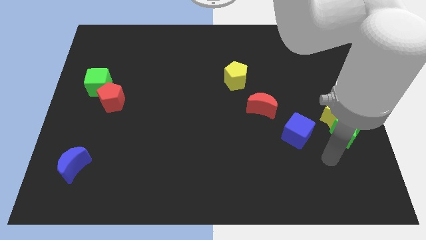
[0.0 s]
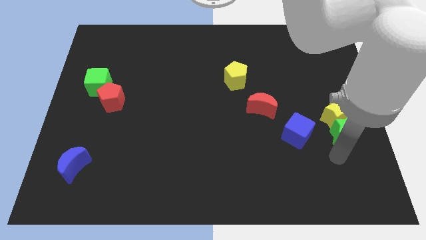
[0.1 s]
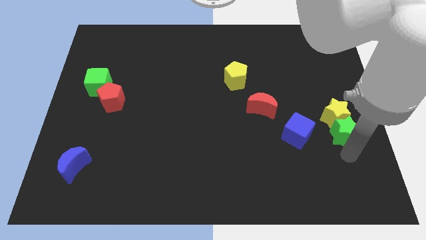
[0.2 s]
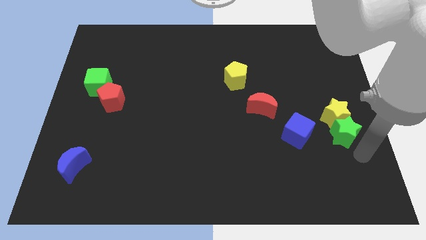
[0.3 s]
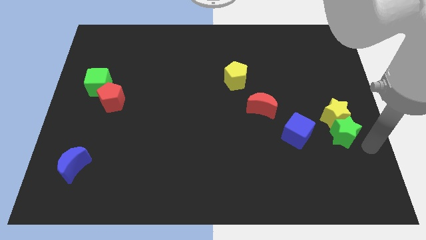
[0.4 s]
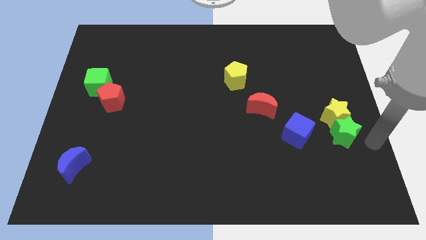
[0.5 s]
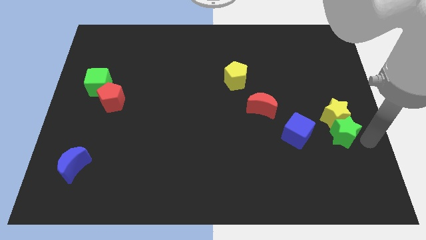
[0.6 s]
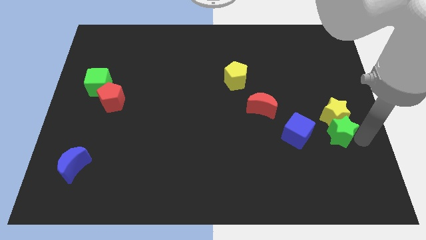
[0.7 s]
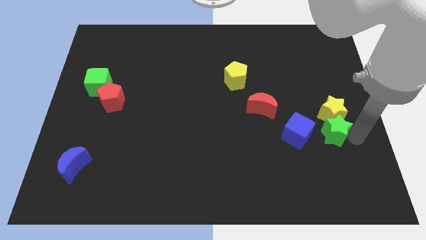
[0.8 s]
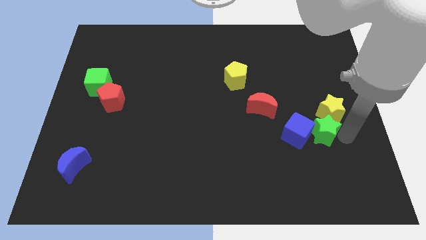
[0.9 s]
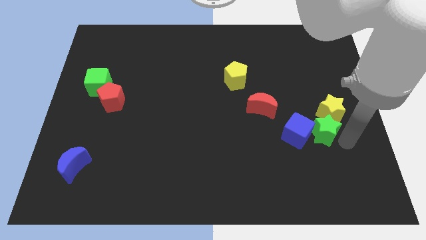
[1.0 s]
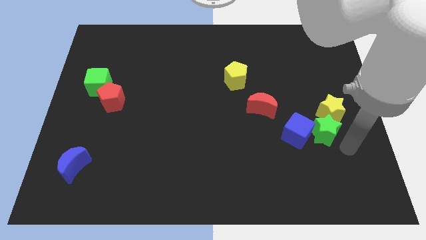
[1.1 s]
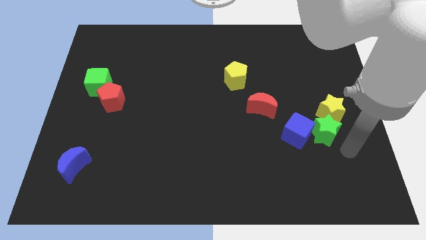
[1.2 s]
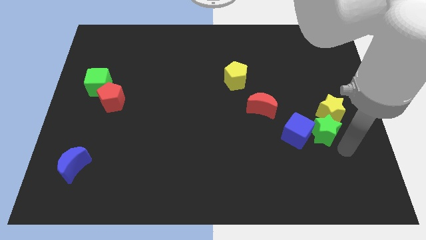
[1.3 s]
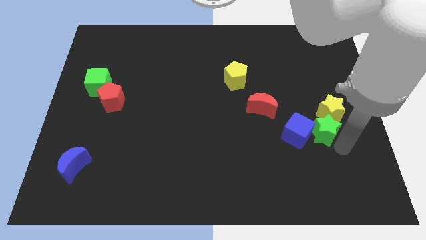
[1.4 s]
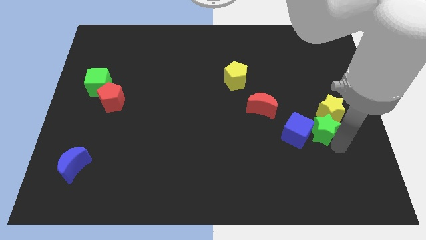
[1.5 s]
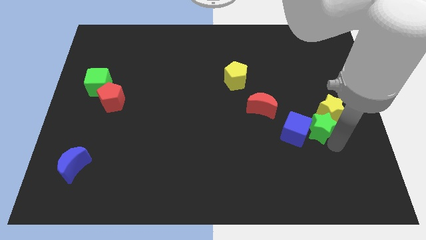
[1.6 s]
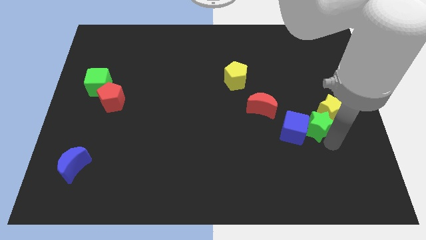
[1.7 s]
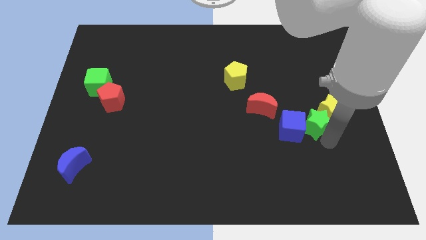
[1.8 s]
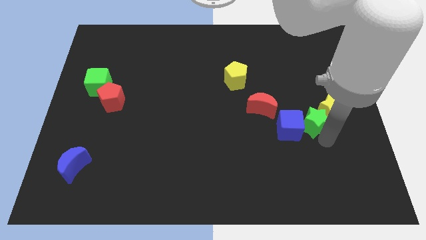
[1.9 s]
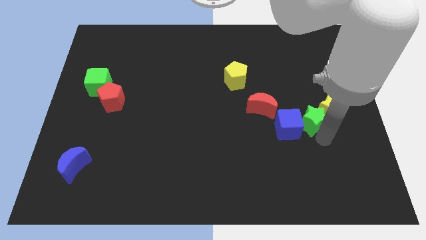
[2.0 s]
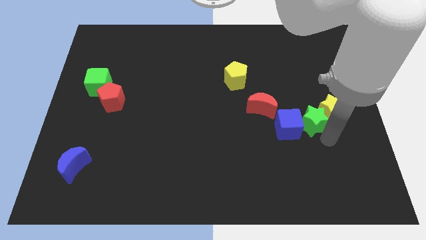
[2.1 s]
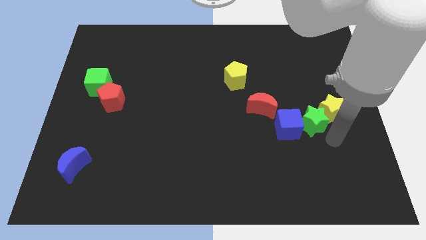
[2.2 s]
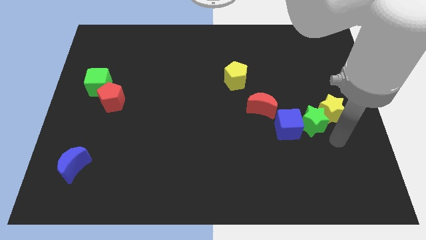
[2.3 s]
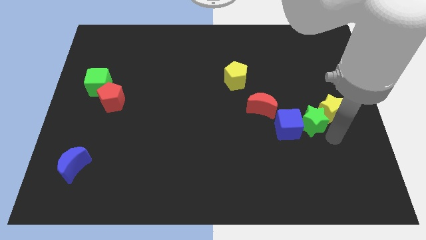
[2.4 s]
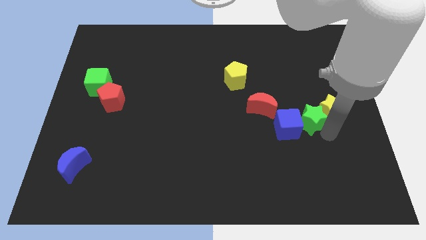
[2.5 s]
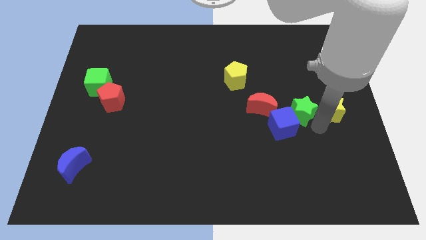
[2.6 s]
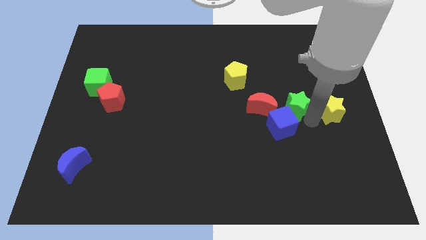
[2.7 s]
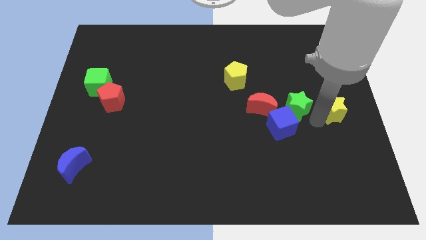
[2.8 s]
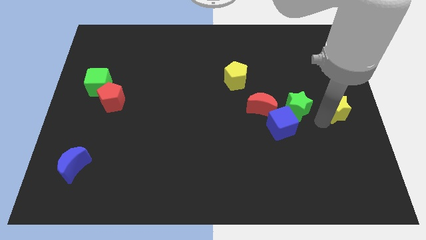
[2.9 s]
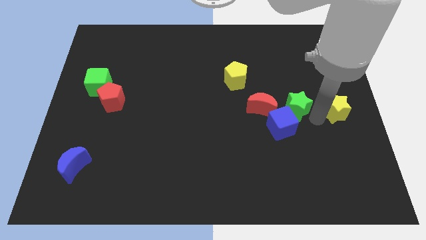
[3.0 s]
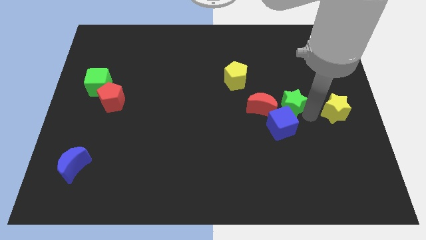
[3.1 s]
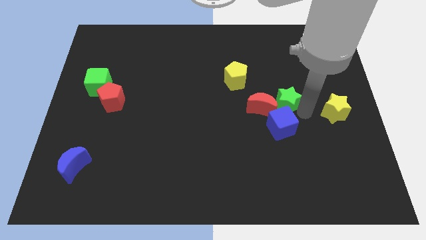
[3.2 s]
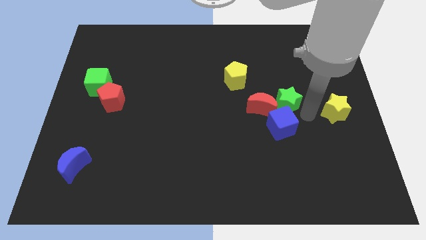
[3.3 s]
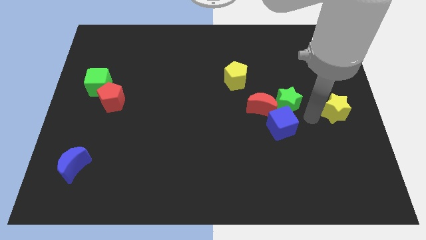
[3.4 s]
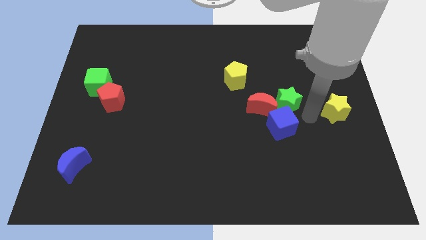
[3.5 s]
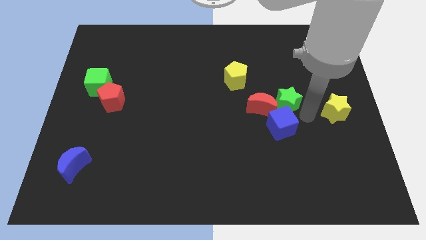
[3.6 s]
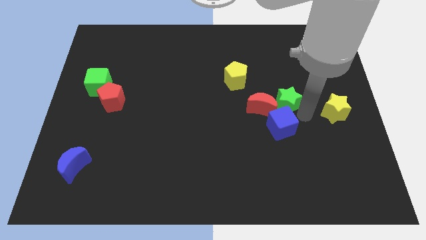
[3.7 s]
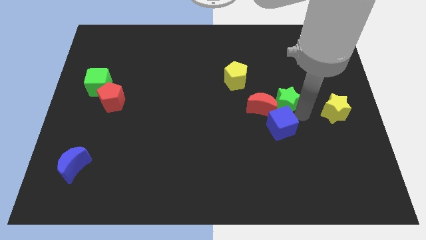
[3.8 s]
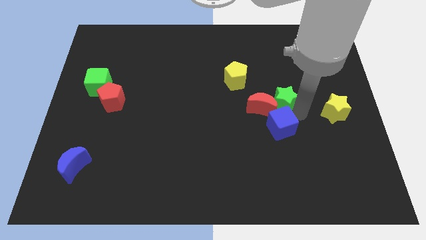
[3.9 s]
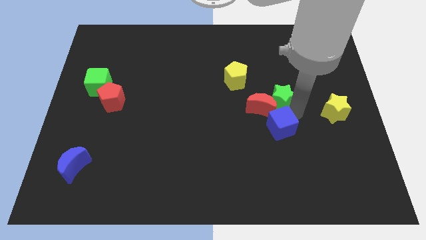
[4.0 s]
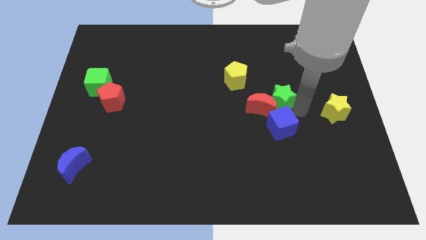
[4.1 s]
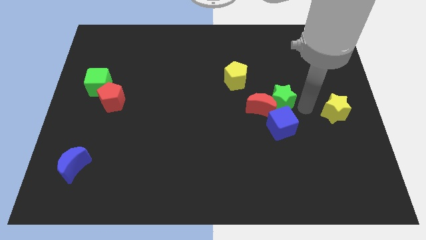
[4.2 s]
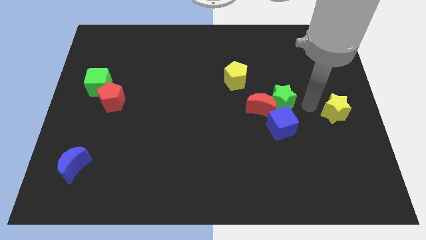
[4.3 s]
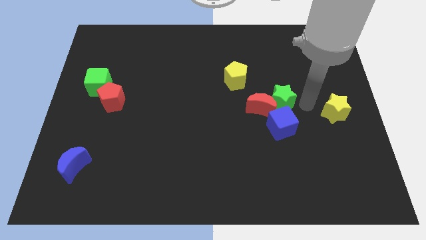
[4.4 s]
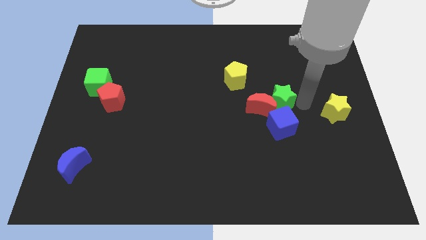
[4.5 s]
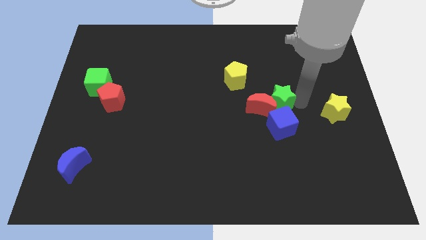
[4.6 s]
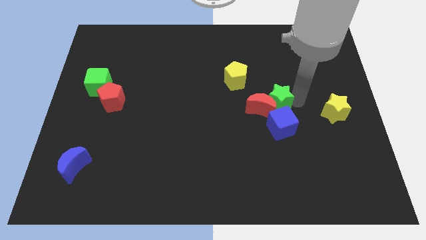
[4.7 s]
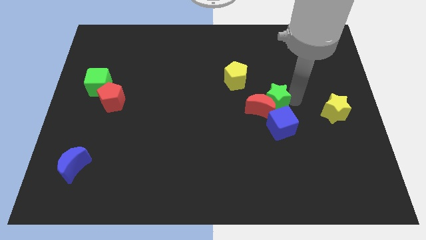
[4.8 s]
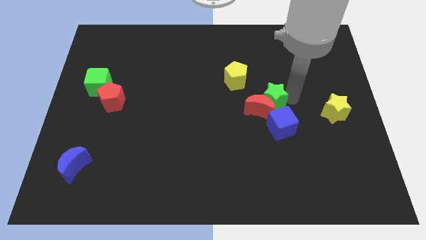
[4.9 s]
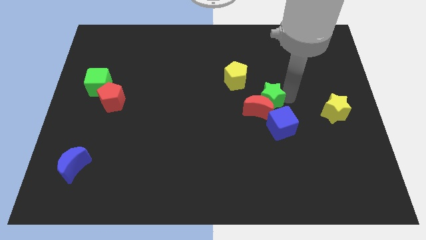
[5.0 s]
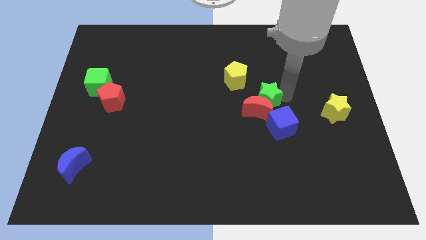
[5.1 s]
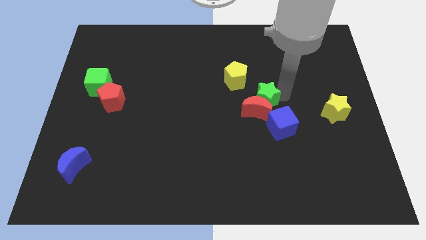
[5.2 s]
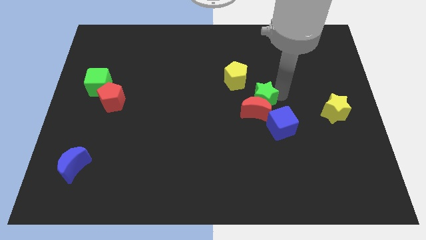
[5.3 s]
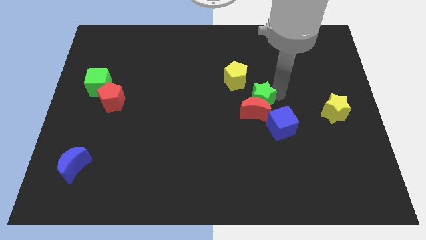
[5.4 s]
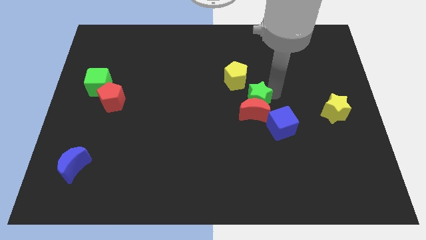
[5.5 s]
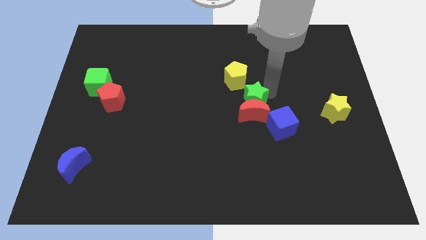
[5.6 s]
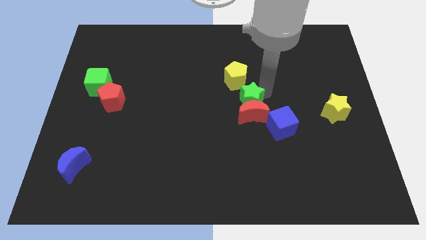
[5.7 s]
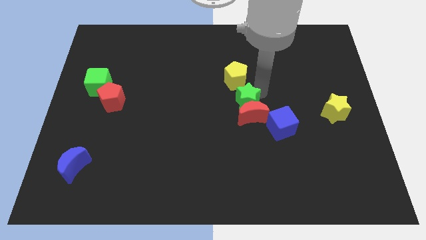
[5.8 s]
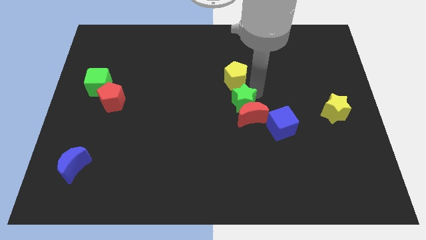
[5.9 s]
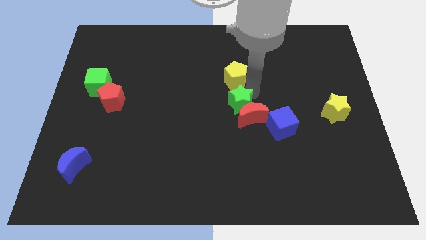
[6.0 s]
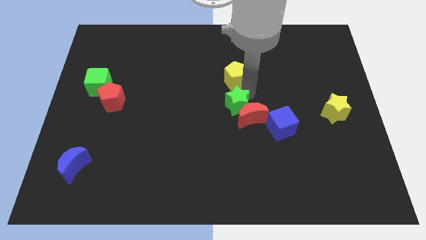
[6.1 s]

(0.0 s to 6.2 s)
slide the green star left of the red moon
